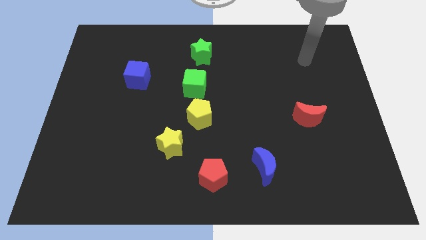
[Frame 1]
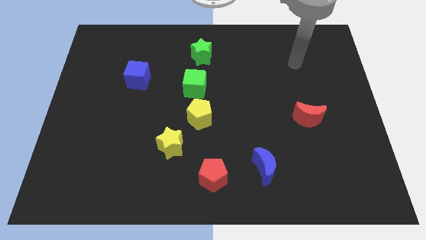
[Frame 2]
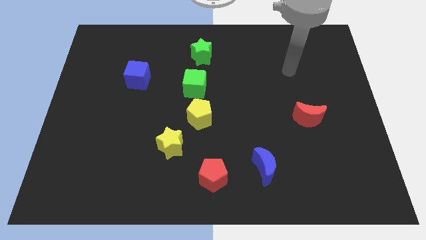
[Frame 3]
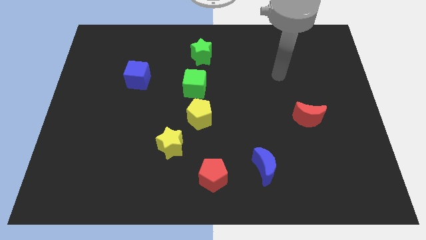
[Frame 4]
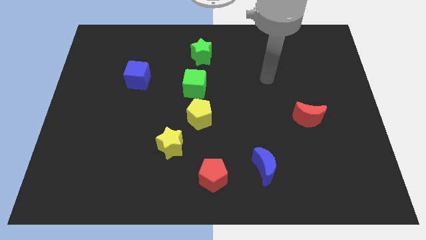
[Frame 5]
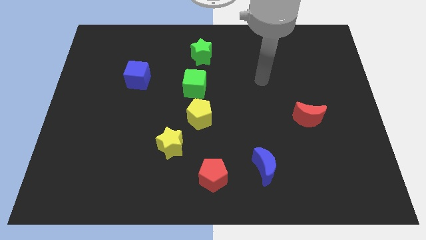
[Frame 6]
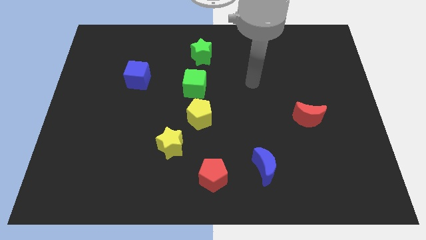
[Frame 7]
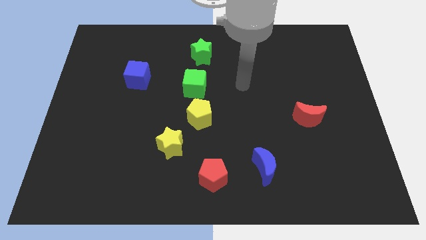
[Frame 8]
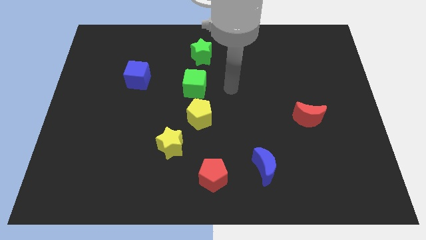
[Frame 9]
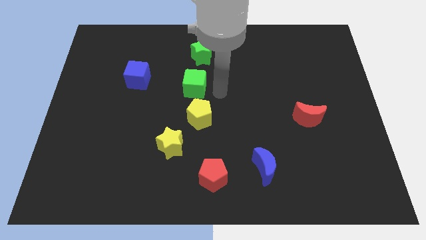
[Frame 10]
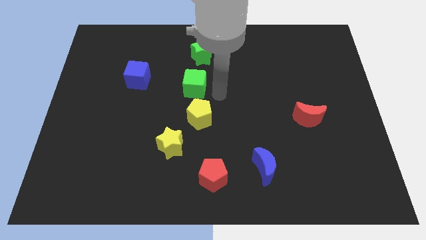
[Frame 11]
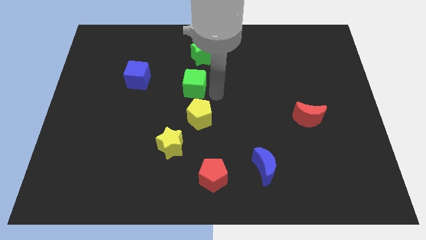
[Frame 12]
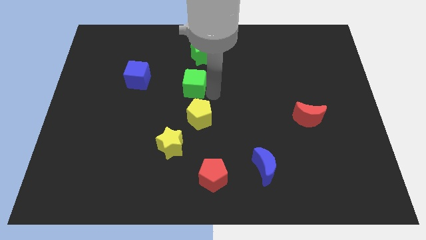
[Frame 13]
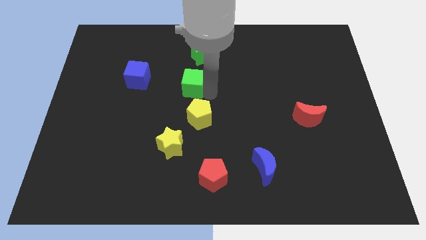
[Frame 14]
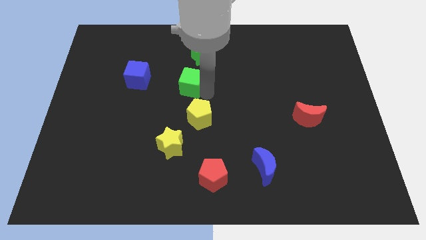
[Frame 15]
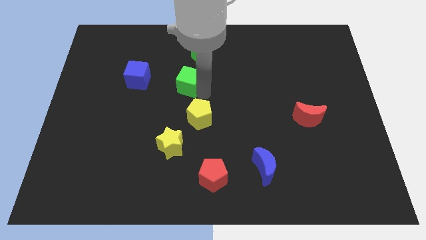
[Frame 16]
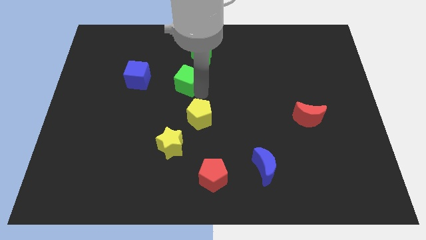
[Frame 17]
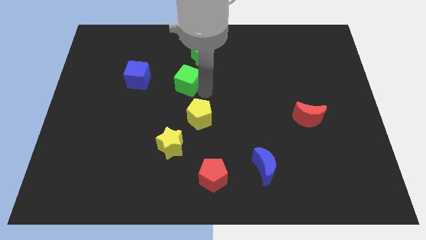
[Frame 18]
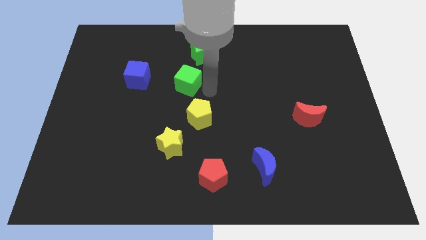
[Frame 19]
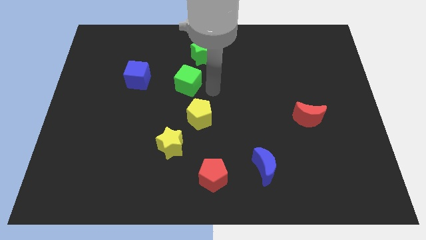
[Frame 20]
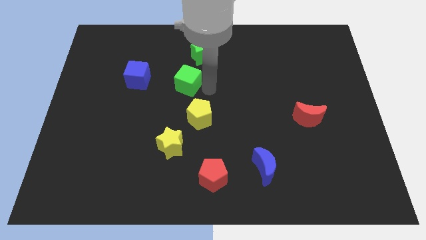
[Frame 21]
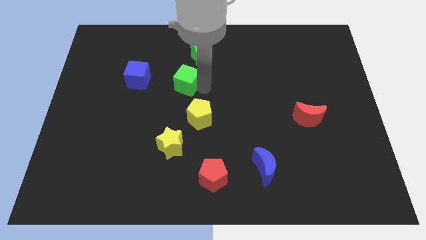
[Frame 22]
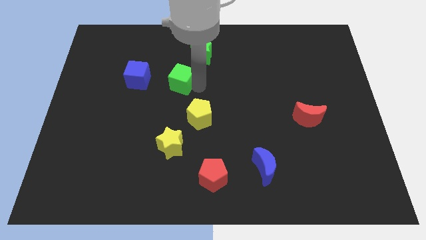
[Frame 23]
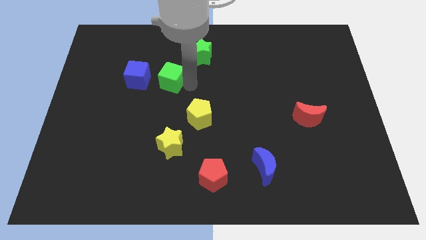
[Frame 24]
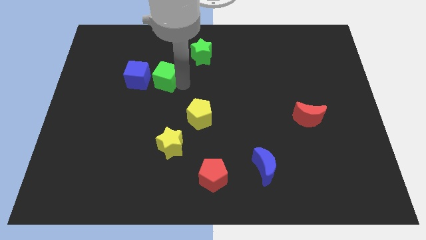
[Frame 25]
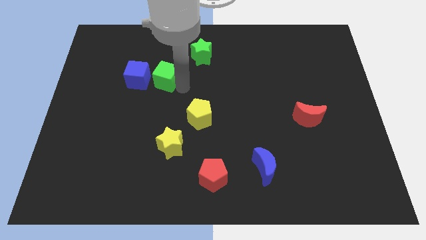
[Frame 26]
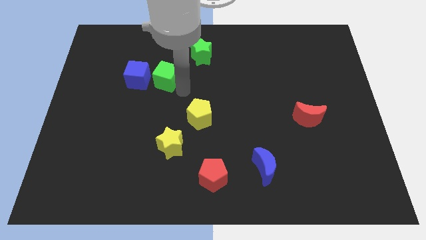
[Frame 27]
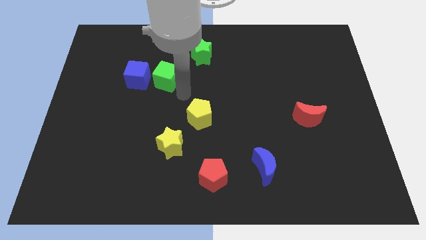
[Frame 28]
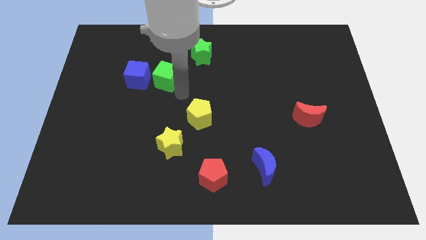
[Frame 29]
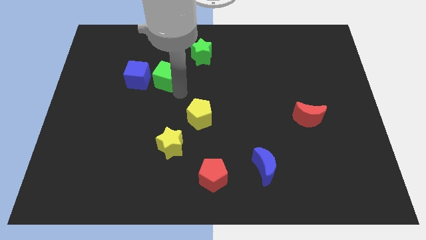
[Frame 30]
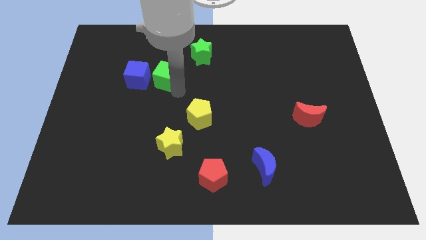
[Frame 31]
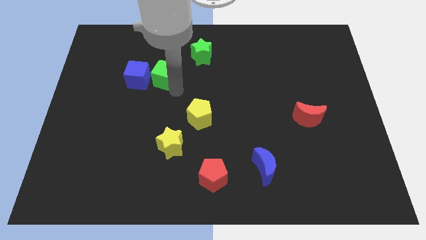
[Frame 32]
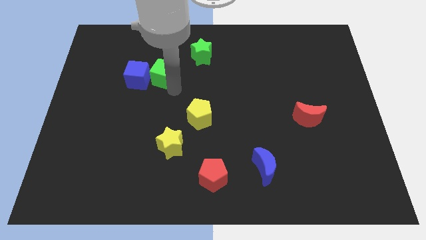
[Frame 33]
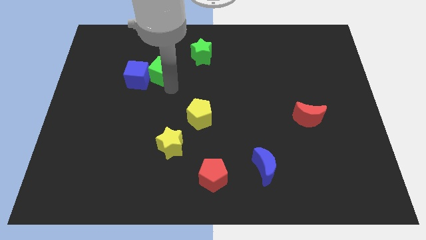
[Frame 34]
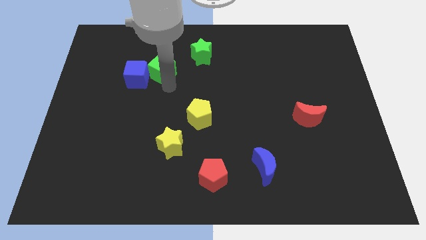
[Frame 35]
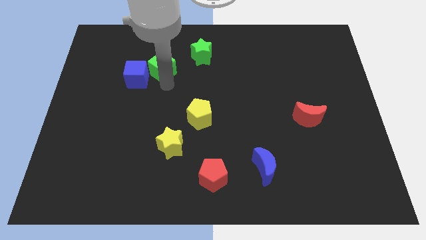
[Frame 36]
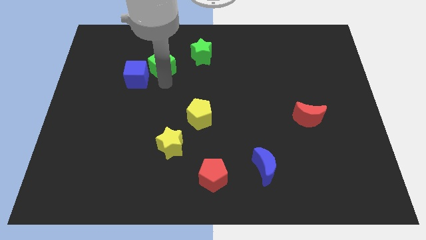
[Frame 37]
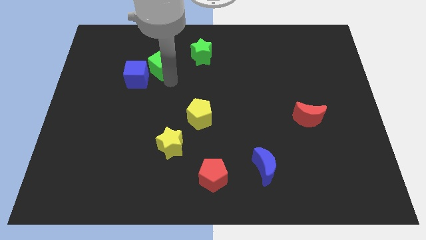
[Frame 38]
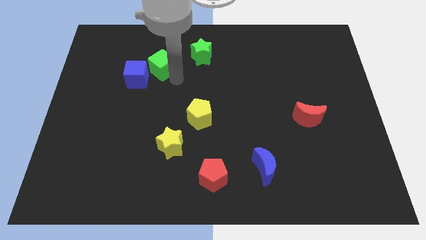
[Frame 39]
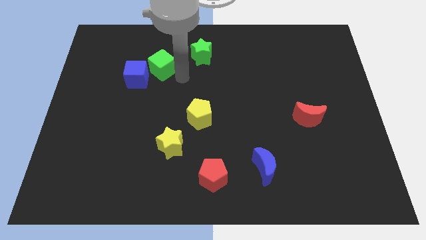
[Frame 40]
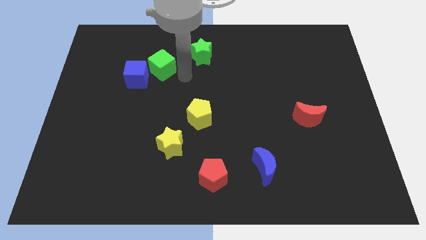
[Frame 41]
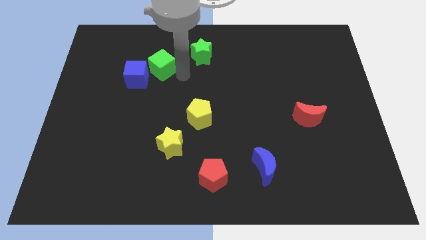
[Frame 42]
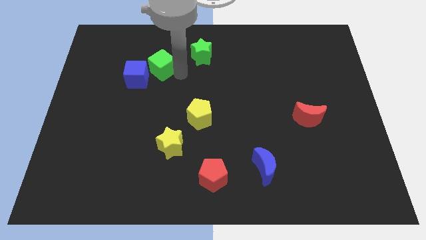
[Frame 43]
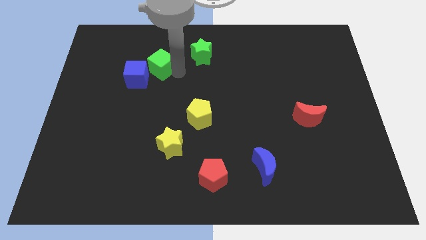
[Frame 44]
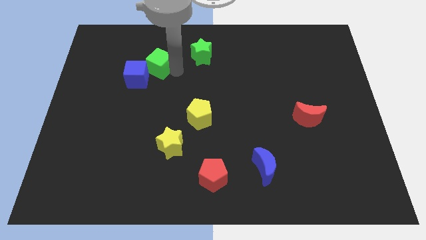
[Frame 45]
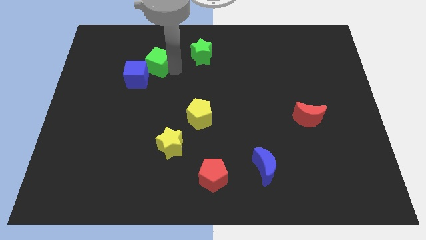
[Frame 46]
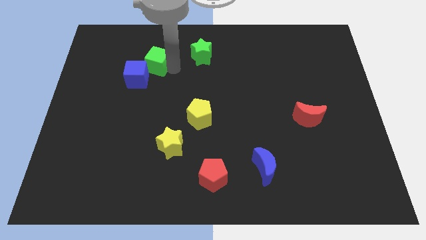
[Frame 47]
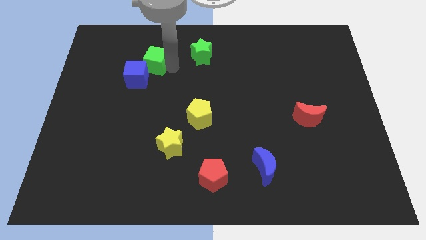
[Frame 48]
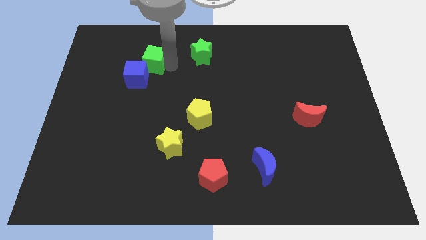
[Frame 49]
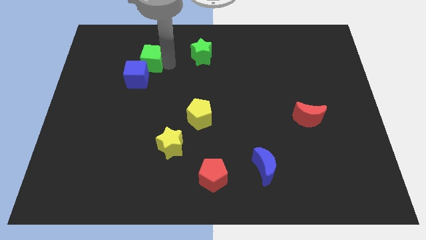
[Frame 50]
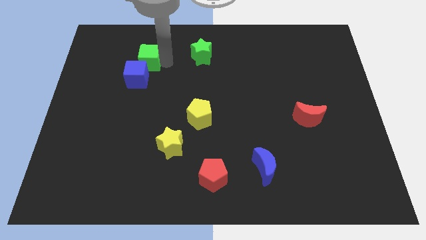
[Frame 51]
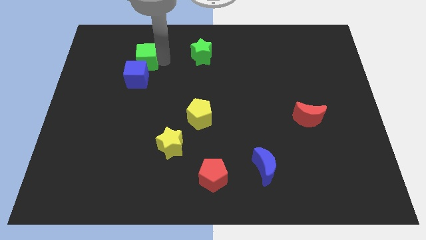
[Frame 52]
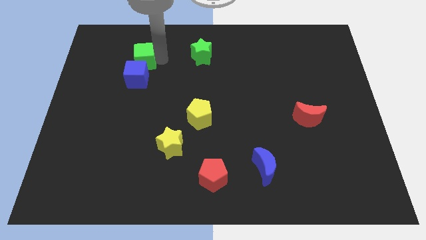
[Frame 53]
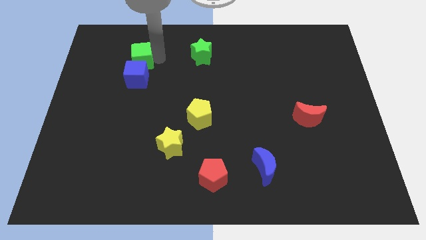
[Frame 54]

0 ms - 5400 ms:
move the green cube to the top left side of the blue cube

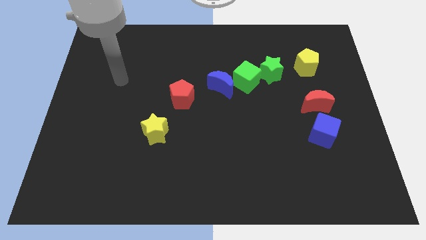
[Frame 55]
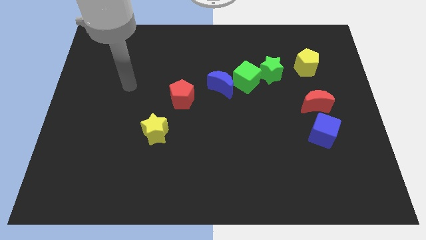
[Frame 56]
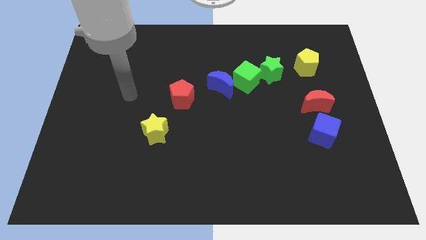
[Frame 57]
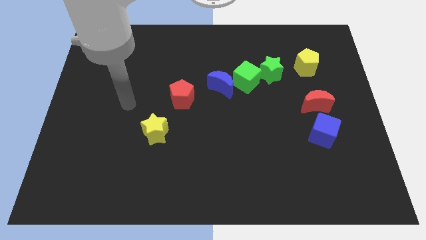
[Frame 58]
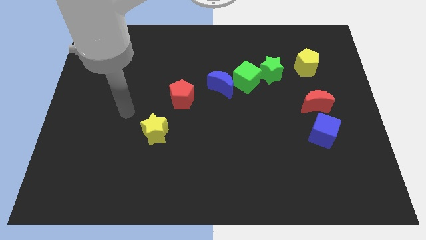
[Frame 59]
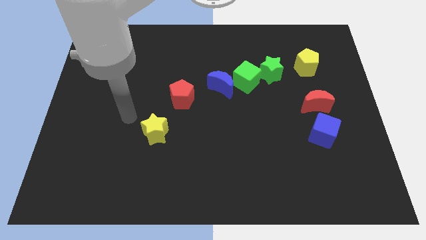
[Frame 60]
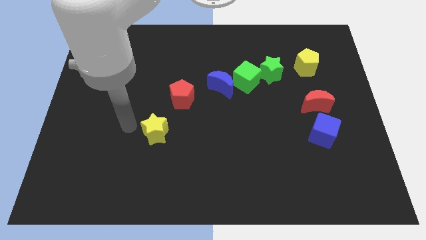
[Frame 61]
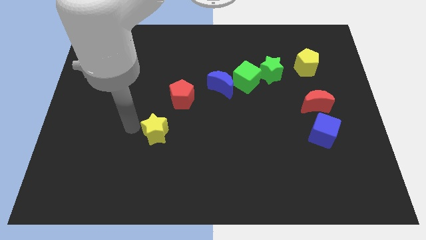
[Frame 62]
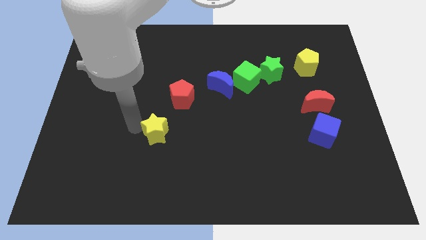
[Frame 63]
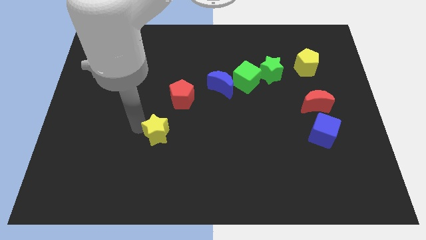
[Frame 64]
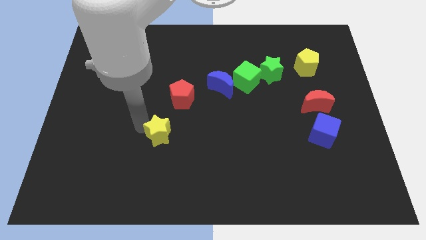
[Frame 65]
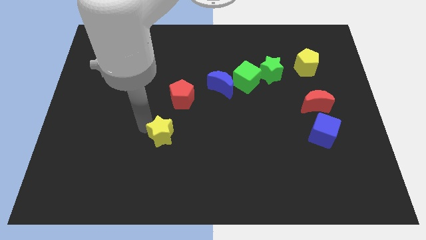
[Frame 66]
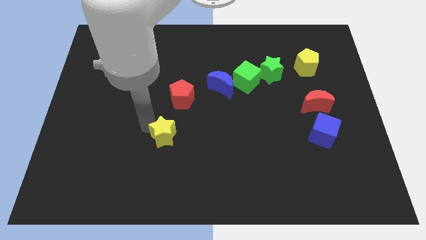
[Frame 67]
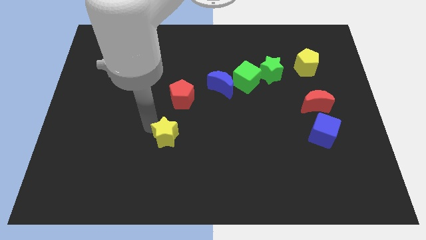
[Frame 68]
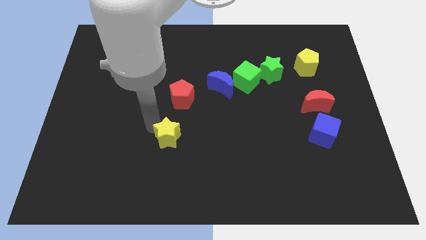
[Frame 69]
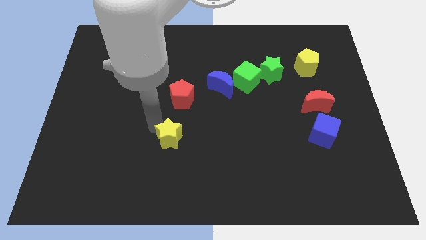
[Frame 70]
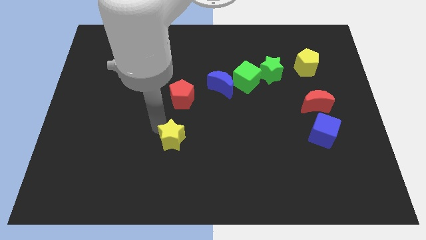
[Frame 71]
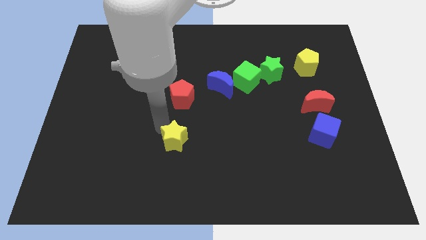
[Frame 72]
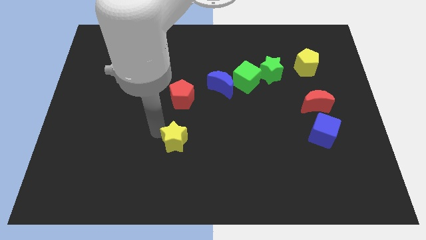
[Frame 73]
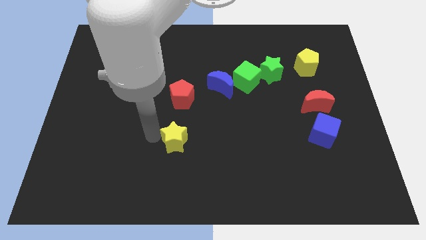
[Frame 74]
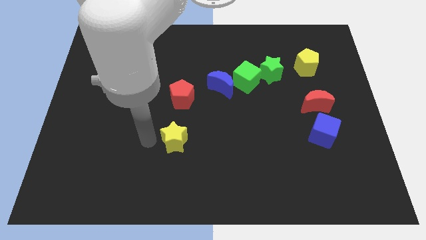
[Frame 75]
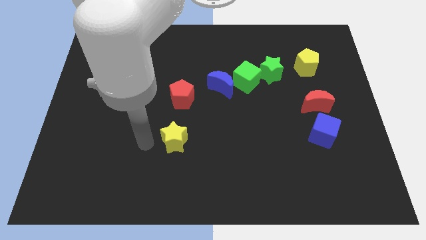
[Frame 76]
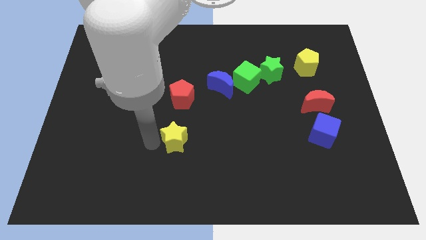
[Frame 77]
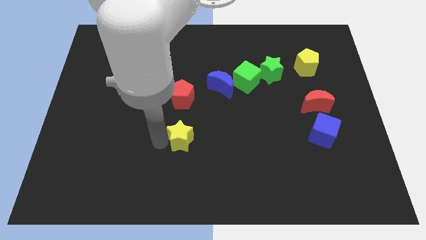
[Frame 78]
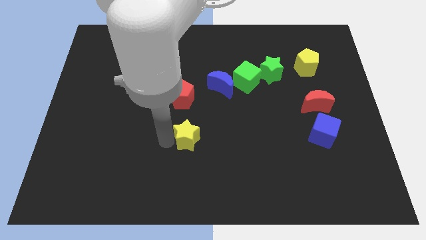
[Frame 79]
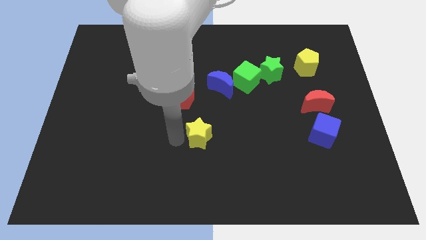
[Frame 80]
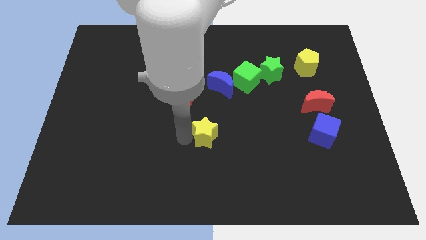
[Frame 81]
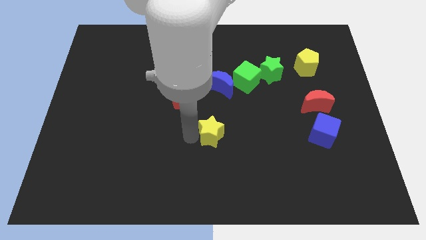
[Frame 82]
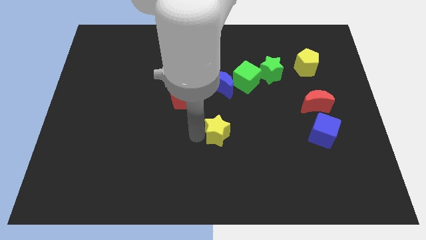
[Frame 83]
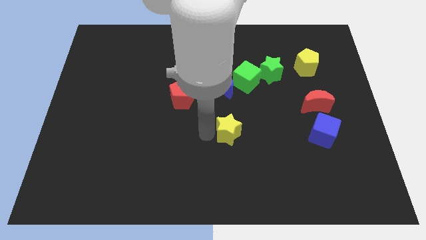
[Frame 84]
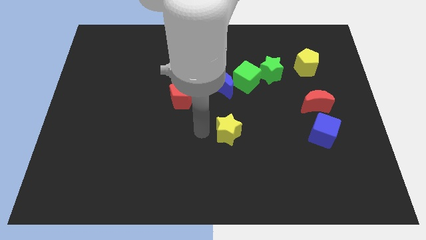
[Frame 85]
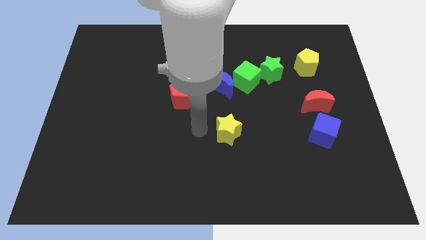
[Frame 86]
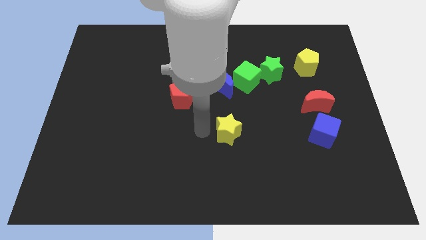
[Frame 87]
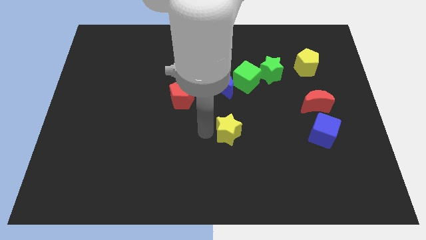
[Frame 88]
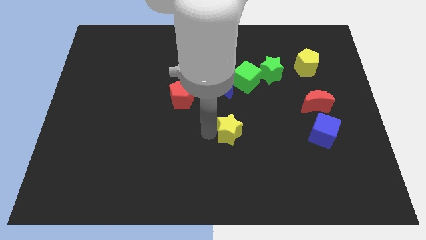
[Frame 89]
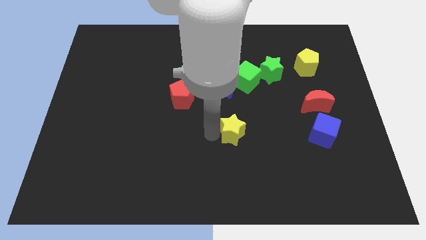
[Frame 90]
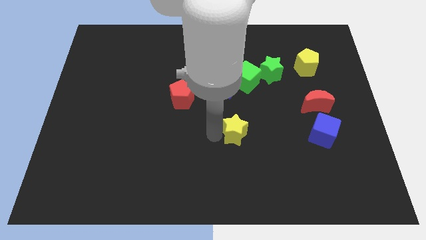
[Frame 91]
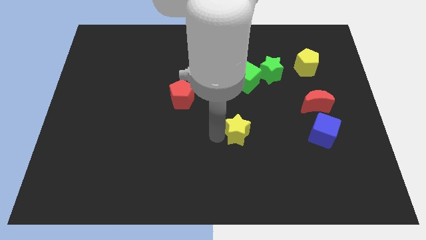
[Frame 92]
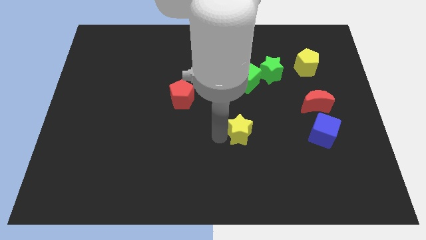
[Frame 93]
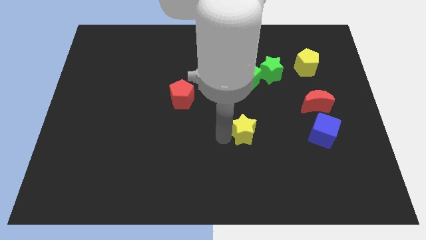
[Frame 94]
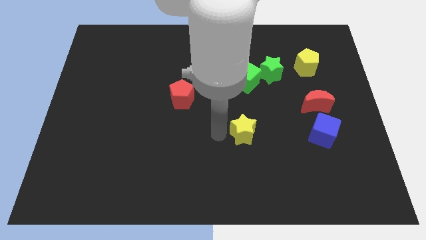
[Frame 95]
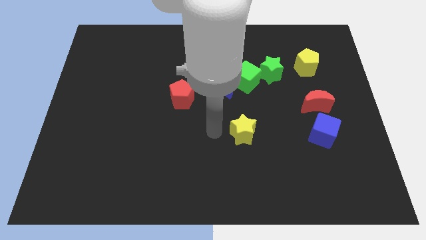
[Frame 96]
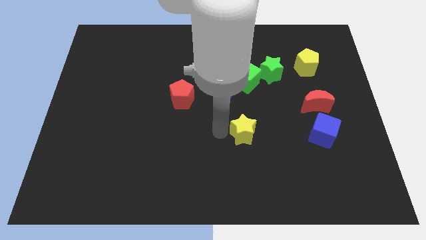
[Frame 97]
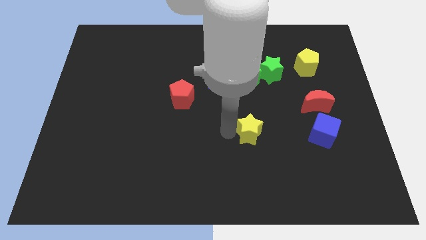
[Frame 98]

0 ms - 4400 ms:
put the yellow star left of the blue cube
